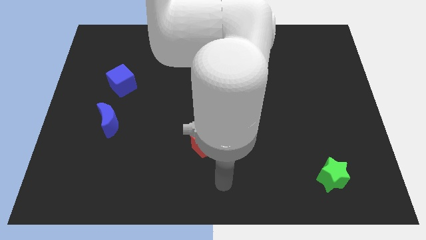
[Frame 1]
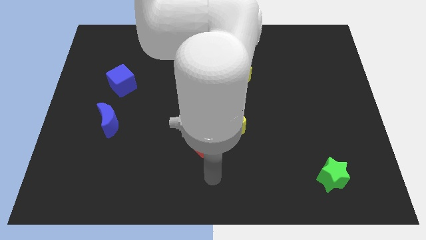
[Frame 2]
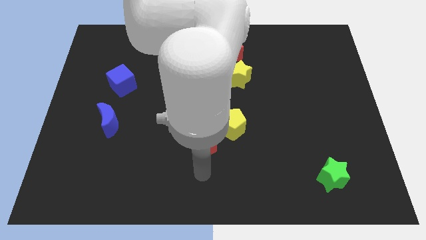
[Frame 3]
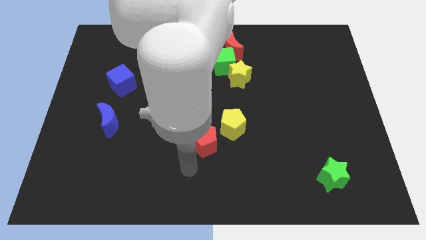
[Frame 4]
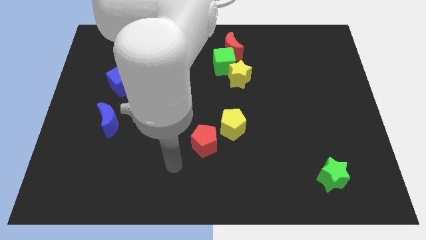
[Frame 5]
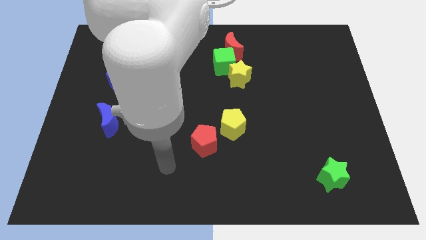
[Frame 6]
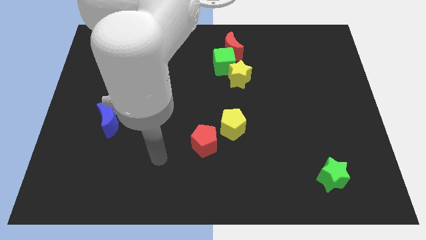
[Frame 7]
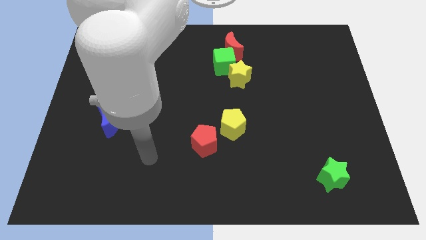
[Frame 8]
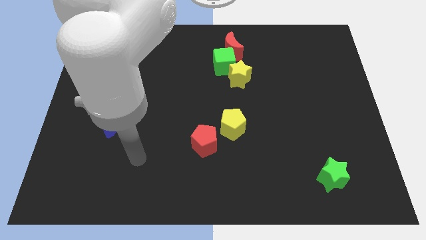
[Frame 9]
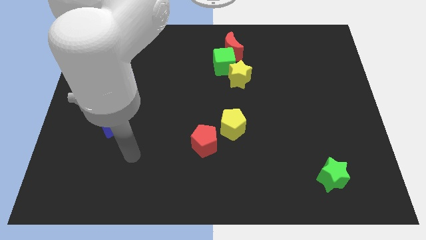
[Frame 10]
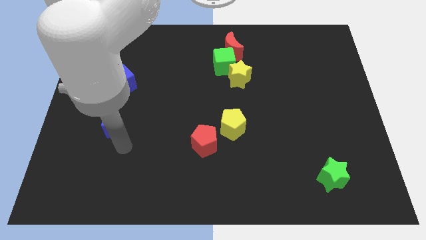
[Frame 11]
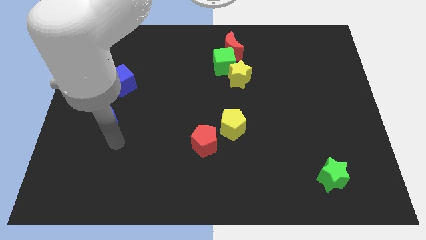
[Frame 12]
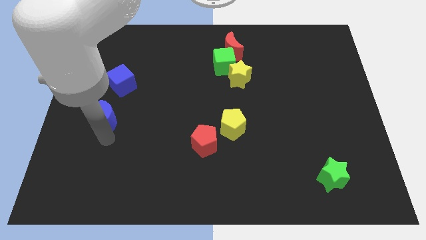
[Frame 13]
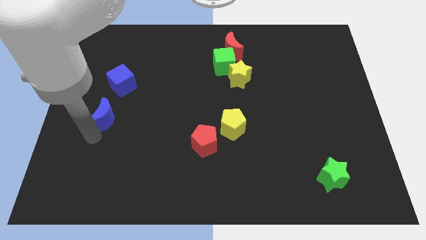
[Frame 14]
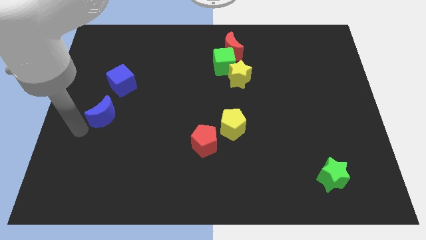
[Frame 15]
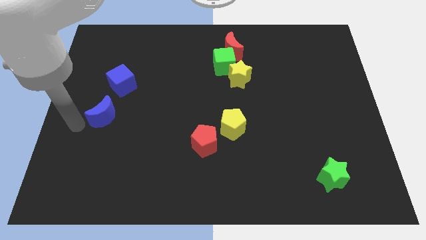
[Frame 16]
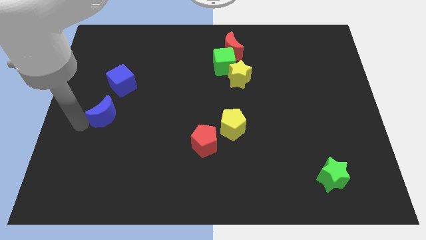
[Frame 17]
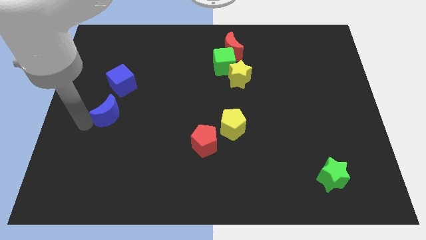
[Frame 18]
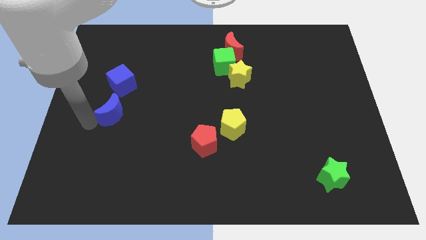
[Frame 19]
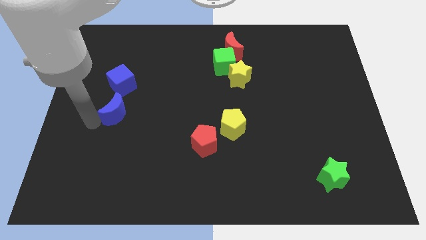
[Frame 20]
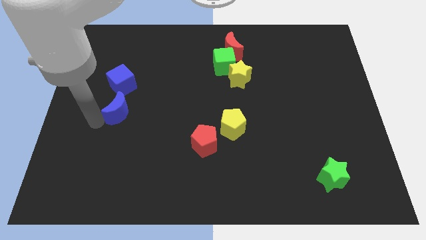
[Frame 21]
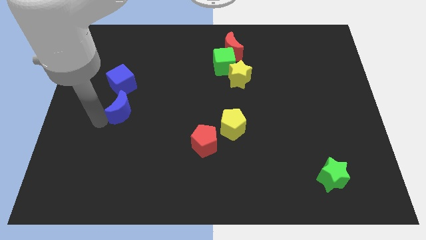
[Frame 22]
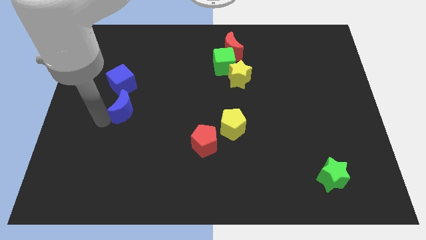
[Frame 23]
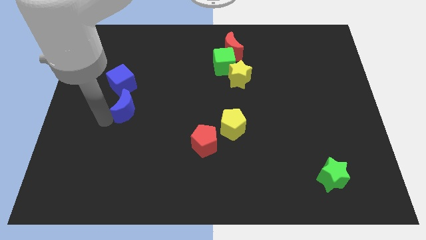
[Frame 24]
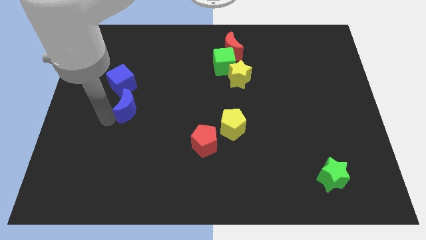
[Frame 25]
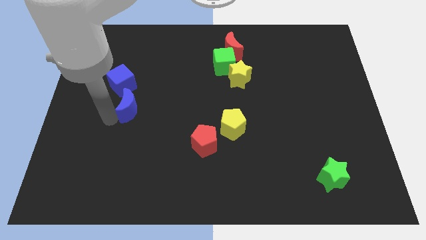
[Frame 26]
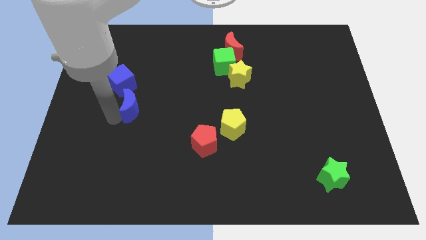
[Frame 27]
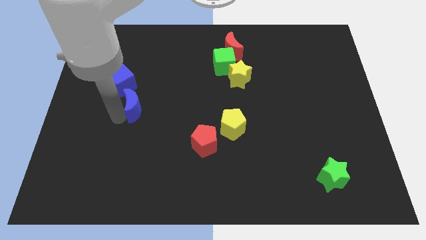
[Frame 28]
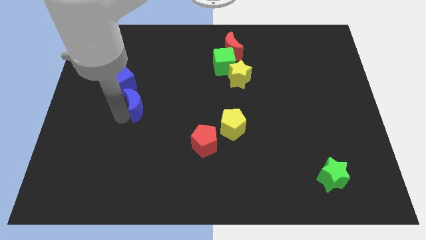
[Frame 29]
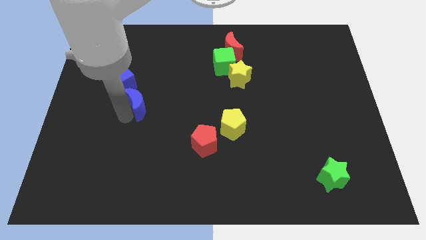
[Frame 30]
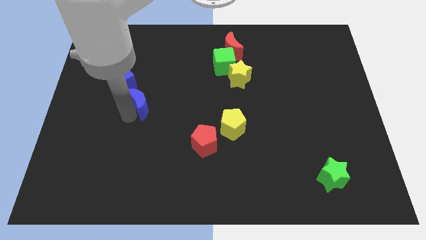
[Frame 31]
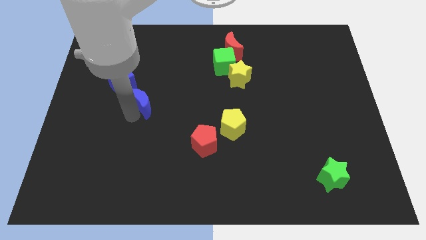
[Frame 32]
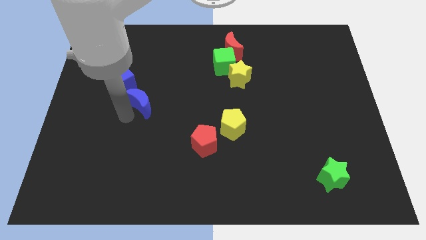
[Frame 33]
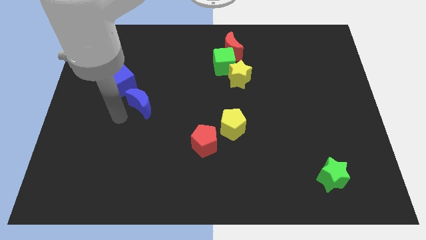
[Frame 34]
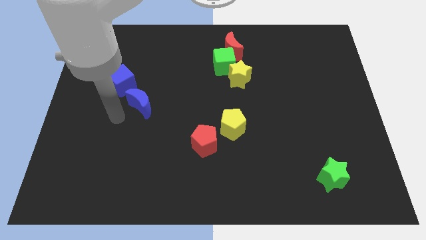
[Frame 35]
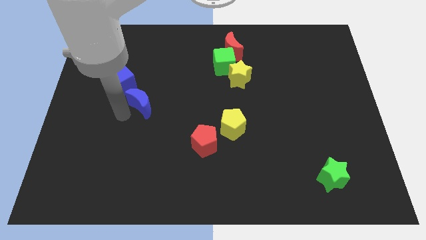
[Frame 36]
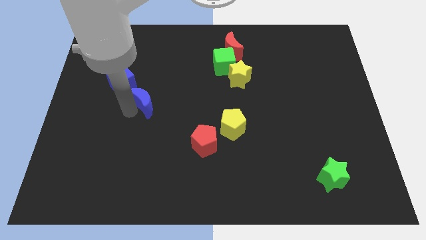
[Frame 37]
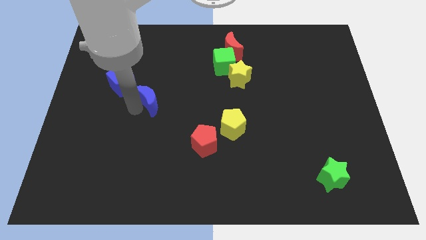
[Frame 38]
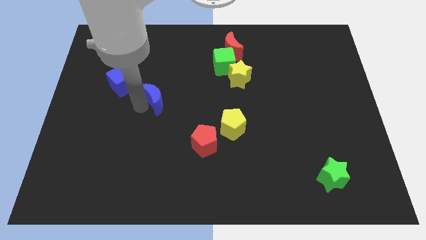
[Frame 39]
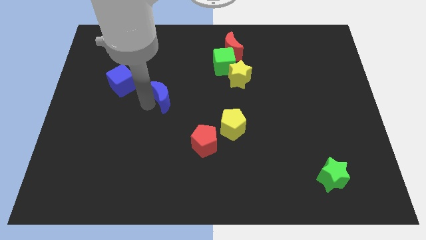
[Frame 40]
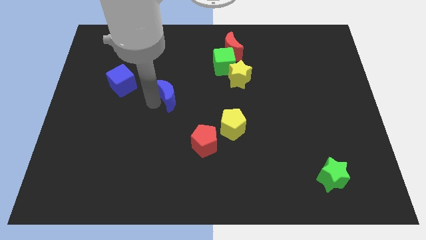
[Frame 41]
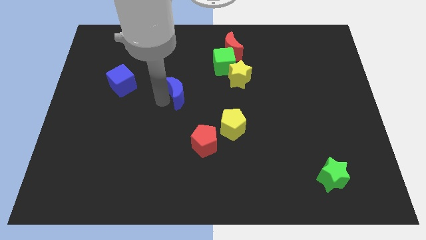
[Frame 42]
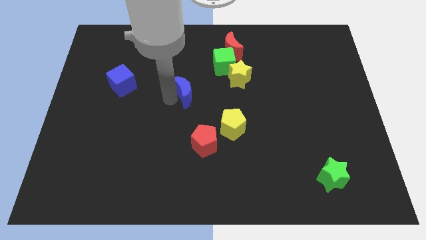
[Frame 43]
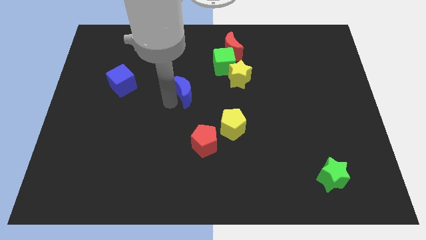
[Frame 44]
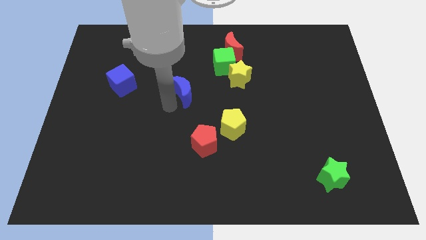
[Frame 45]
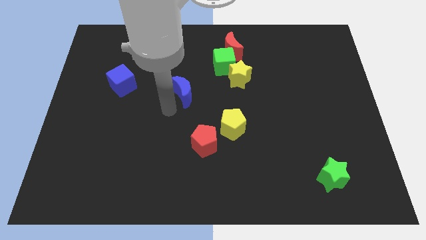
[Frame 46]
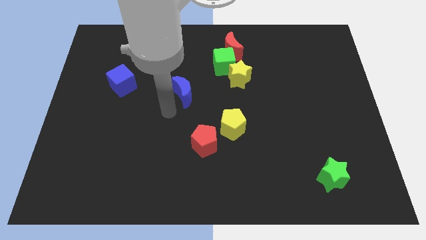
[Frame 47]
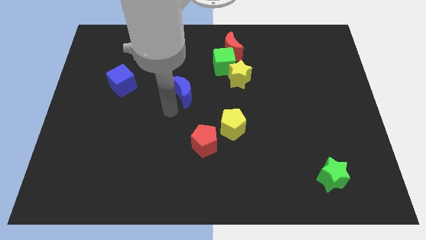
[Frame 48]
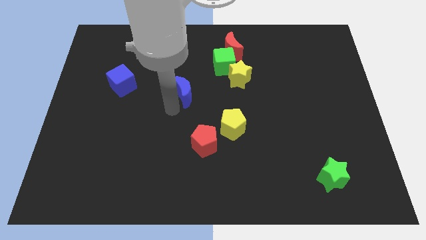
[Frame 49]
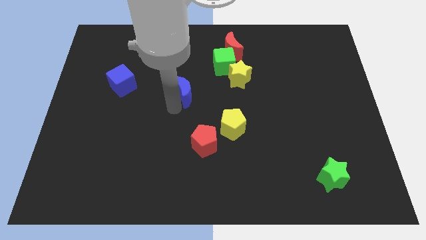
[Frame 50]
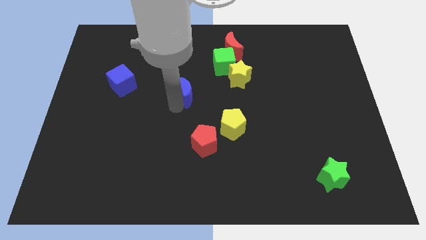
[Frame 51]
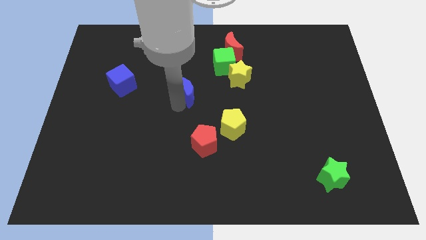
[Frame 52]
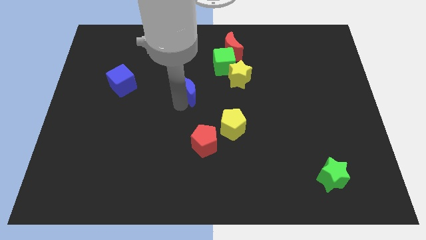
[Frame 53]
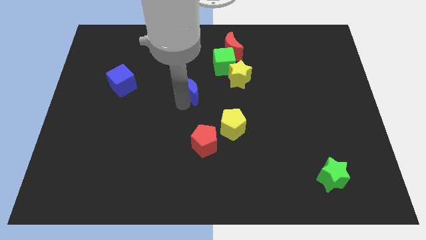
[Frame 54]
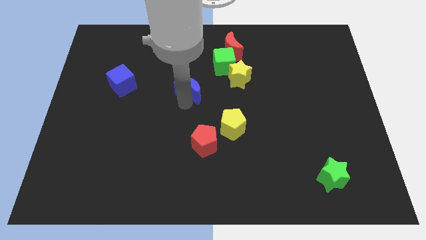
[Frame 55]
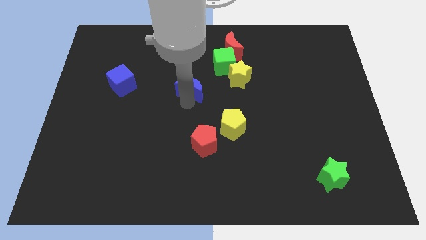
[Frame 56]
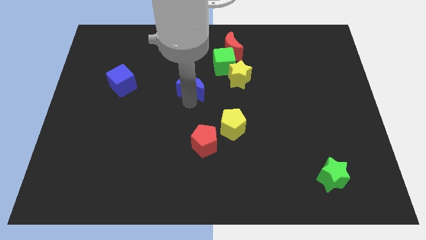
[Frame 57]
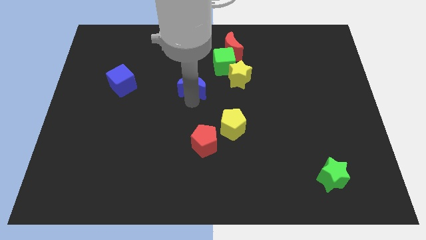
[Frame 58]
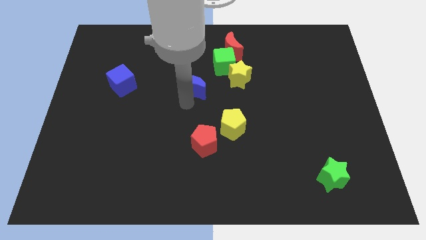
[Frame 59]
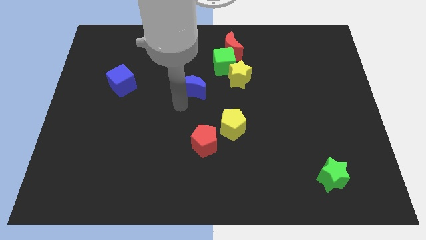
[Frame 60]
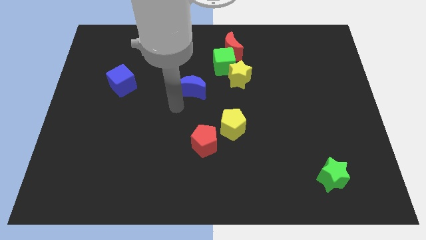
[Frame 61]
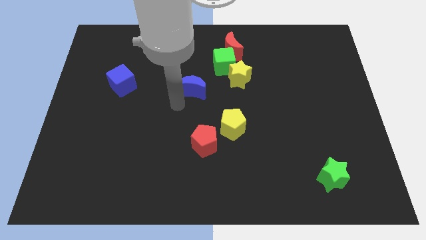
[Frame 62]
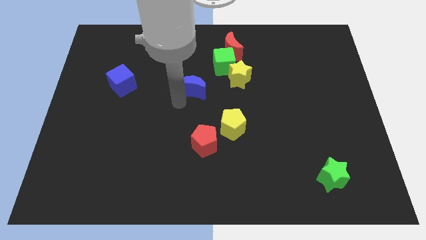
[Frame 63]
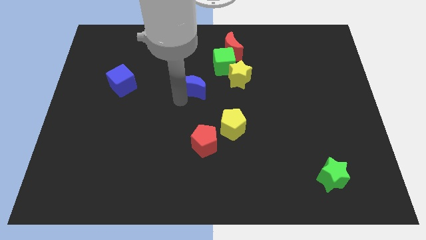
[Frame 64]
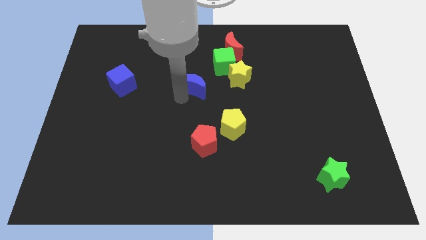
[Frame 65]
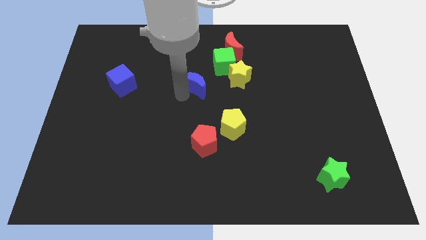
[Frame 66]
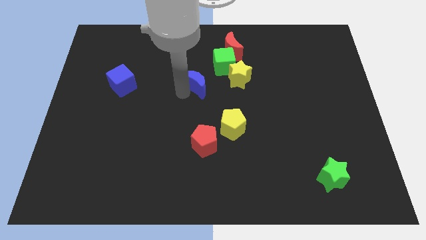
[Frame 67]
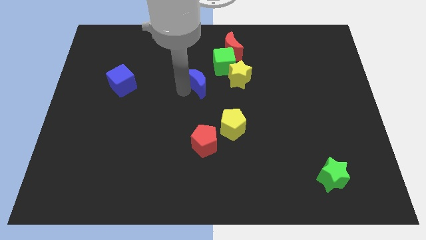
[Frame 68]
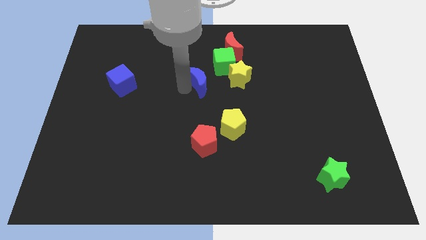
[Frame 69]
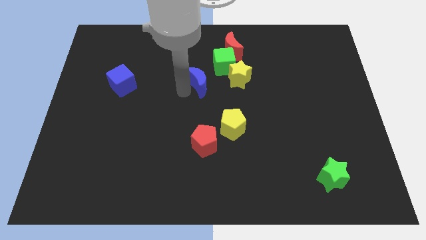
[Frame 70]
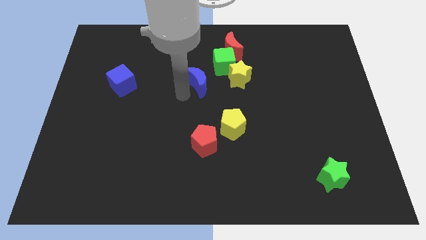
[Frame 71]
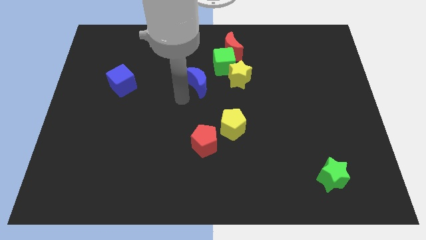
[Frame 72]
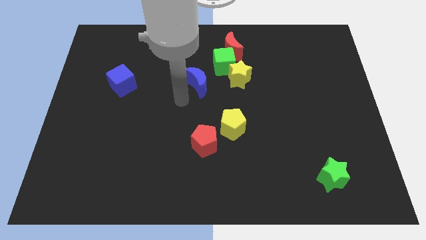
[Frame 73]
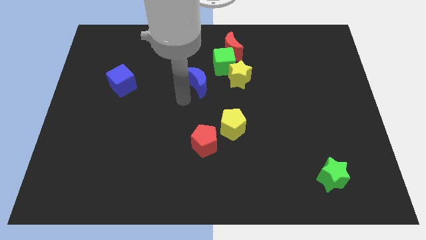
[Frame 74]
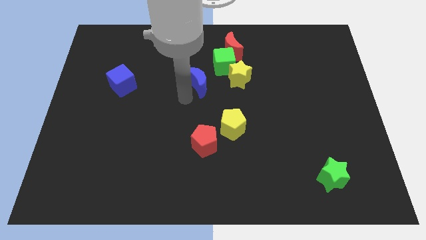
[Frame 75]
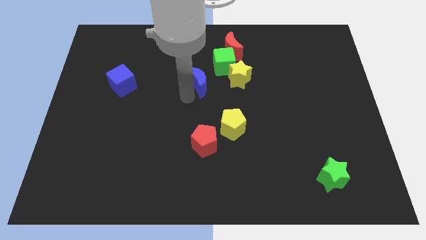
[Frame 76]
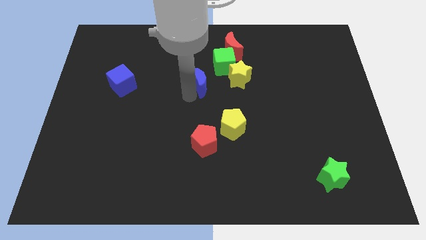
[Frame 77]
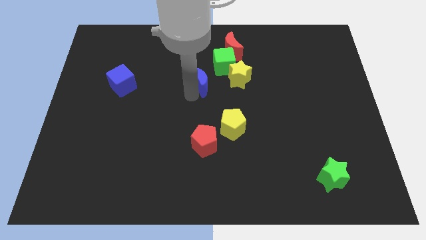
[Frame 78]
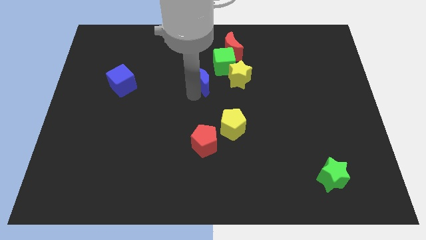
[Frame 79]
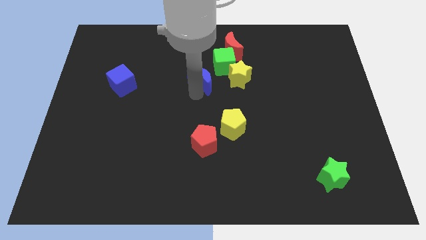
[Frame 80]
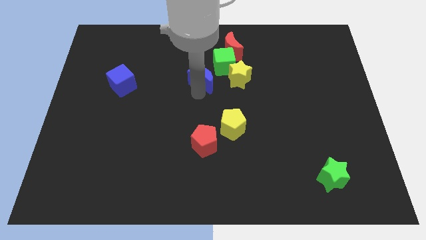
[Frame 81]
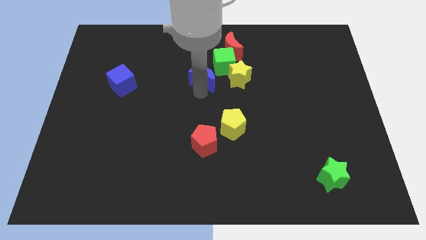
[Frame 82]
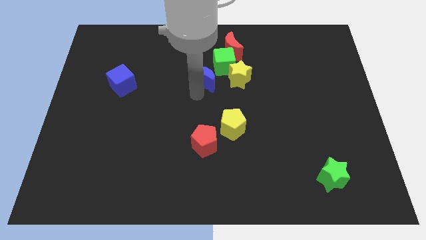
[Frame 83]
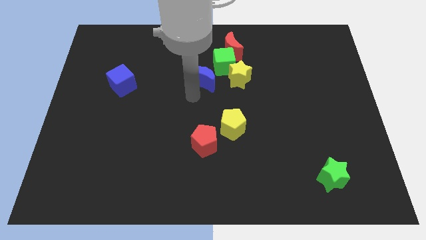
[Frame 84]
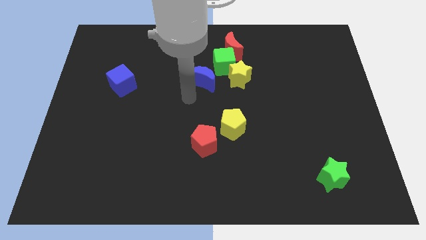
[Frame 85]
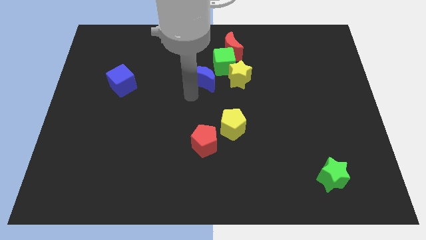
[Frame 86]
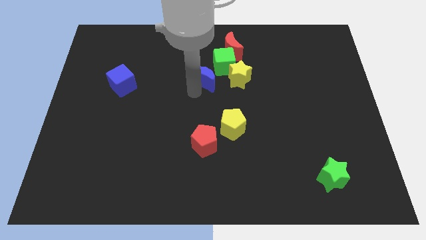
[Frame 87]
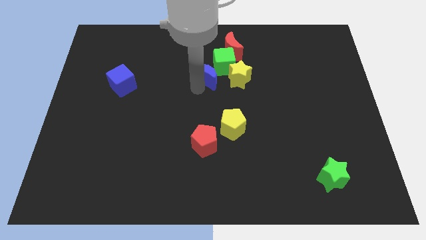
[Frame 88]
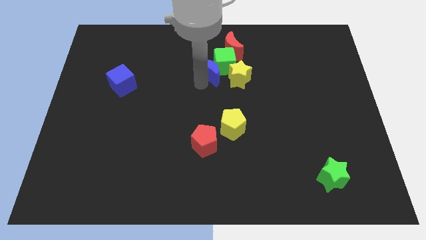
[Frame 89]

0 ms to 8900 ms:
put the blue moon towards the green cube
